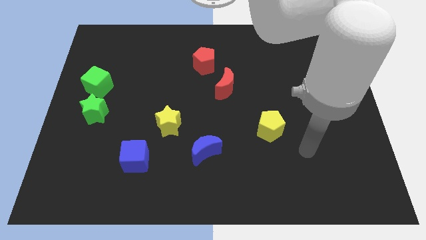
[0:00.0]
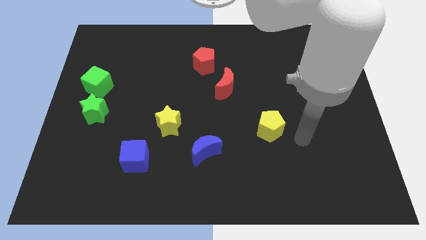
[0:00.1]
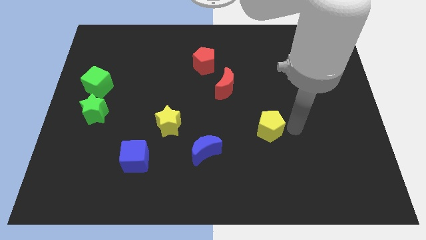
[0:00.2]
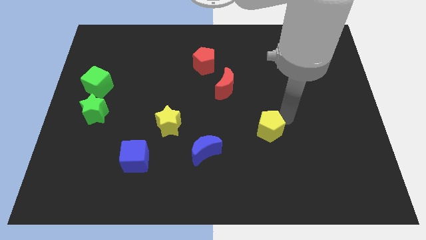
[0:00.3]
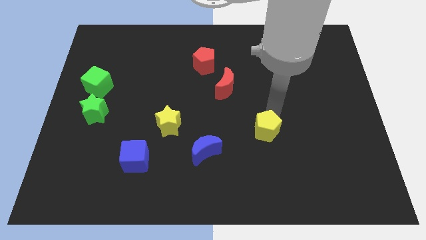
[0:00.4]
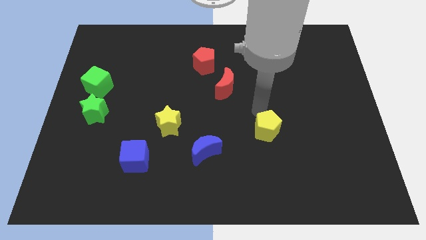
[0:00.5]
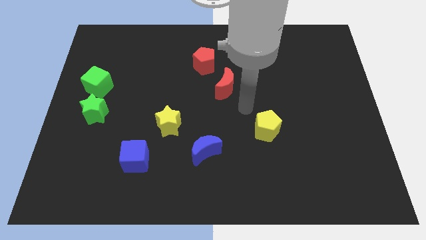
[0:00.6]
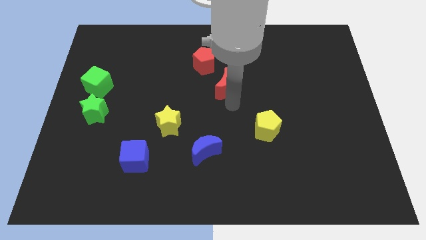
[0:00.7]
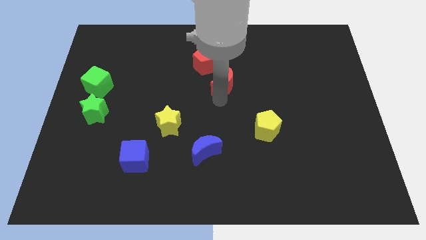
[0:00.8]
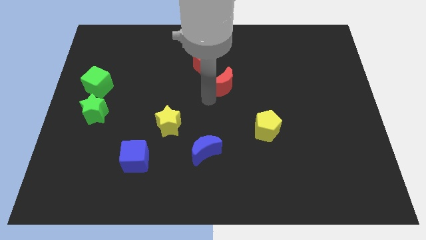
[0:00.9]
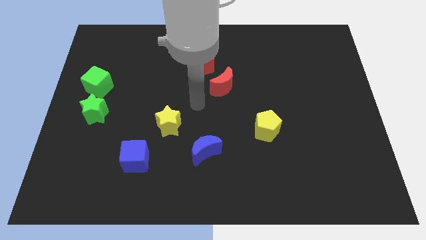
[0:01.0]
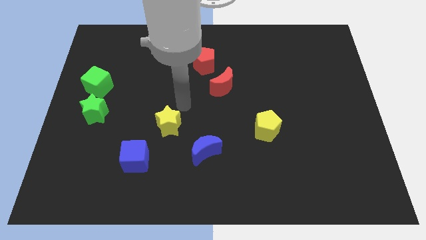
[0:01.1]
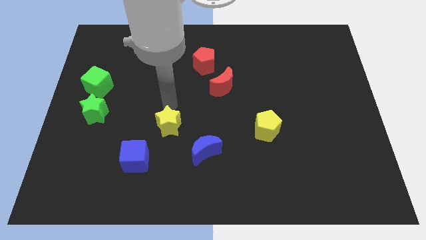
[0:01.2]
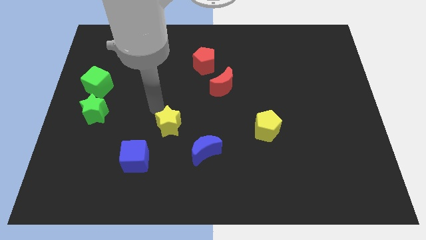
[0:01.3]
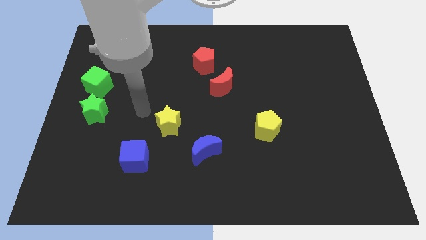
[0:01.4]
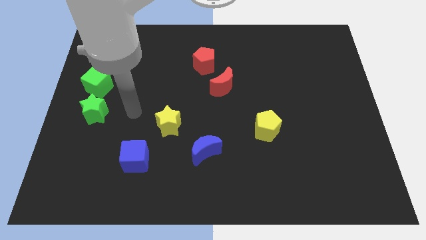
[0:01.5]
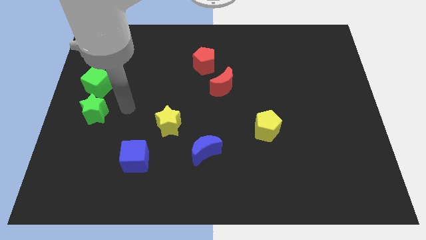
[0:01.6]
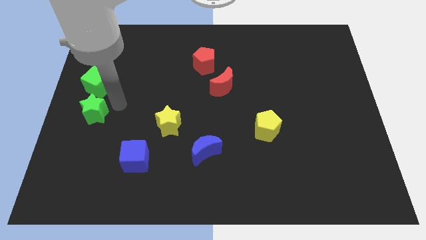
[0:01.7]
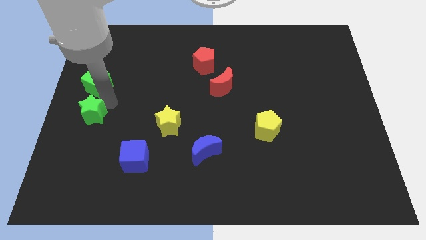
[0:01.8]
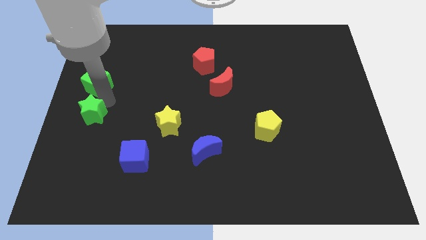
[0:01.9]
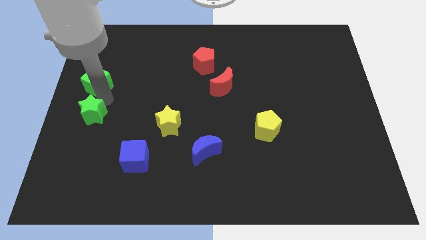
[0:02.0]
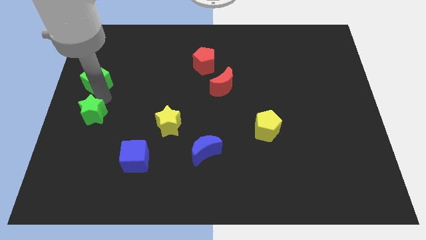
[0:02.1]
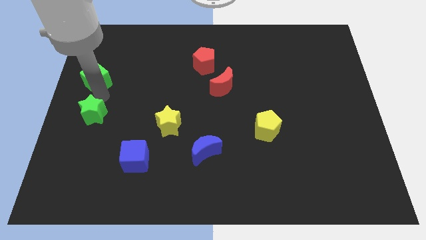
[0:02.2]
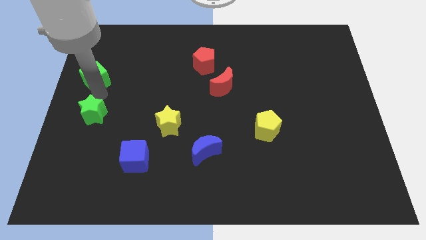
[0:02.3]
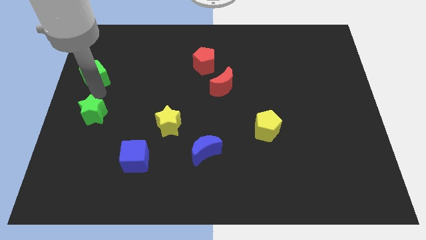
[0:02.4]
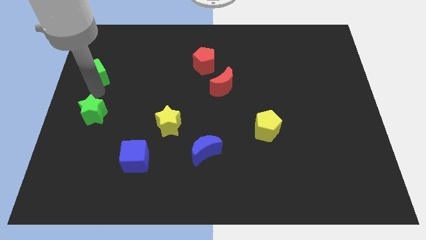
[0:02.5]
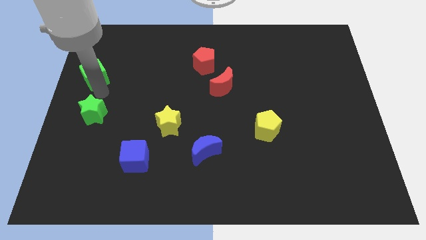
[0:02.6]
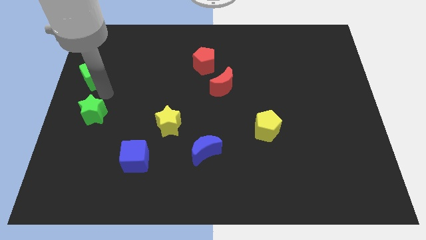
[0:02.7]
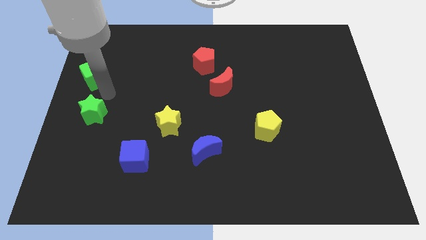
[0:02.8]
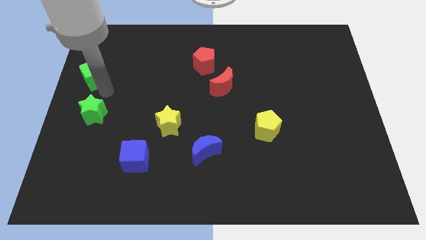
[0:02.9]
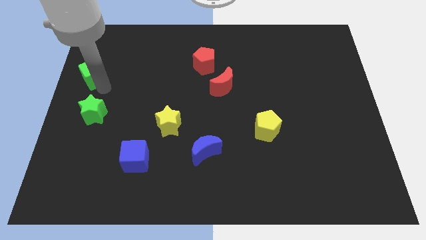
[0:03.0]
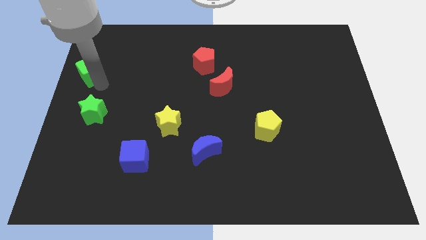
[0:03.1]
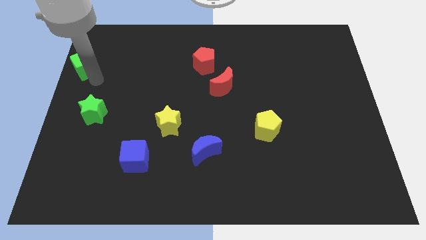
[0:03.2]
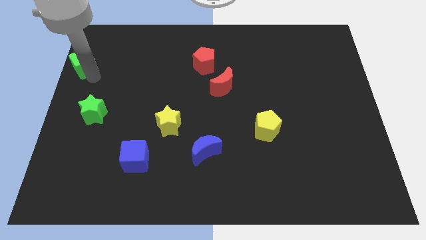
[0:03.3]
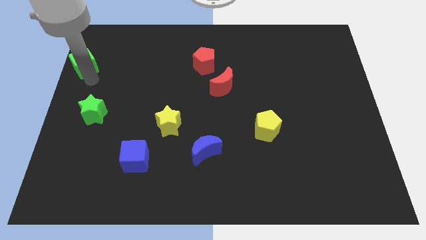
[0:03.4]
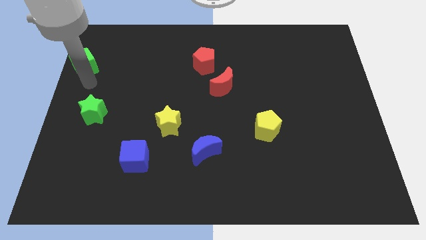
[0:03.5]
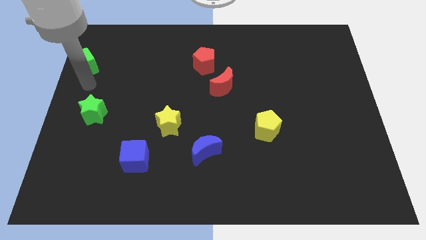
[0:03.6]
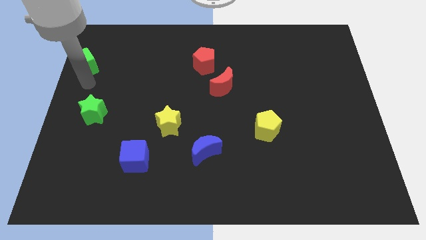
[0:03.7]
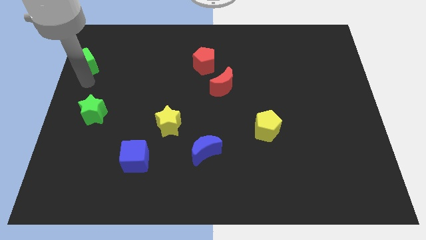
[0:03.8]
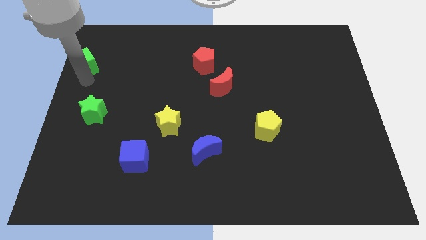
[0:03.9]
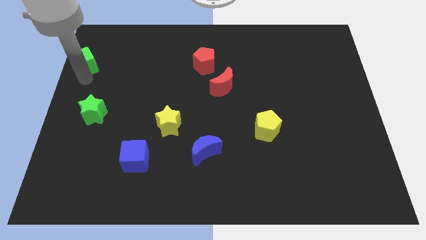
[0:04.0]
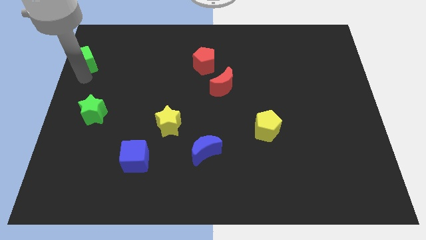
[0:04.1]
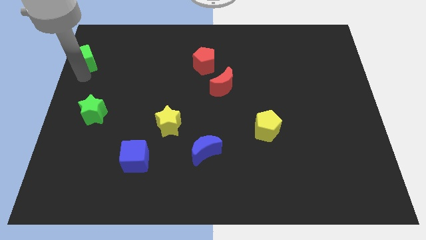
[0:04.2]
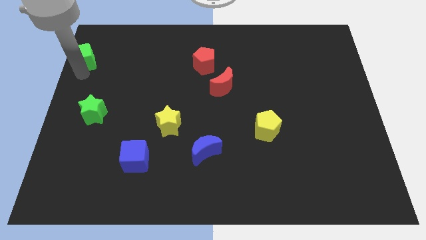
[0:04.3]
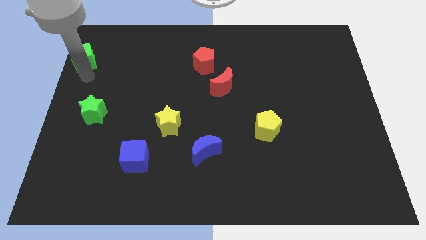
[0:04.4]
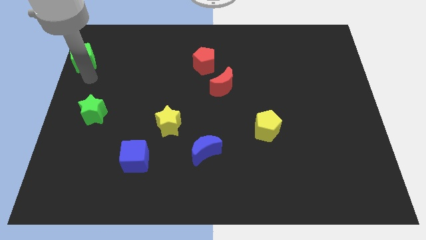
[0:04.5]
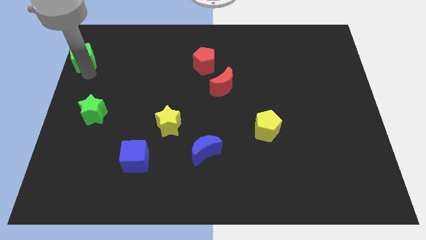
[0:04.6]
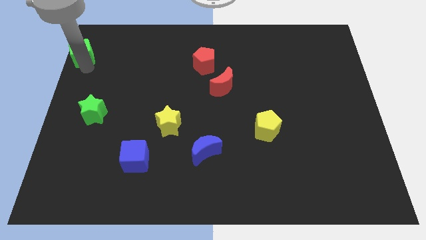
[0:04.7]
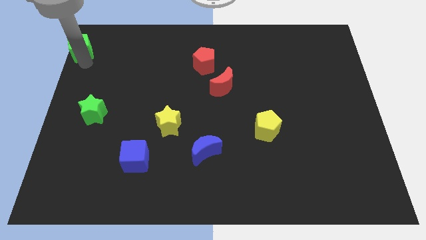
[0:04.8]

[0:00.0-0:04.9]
push the green cube to the top left of the board

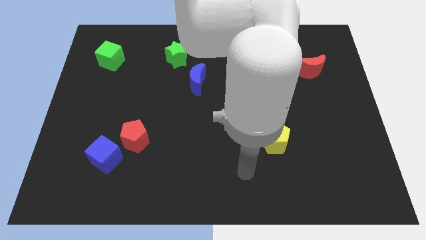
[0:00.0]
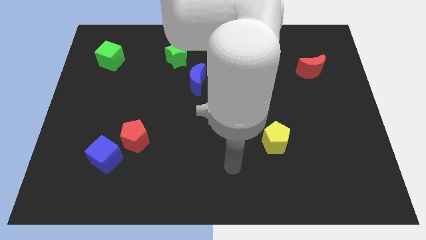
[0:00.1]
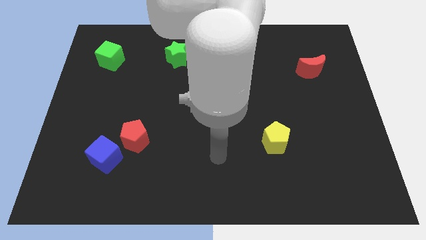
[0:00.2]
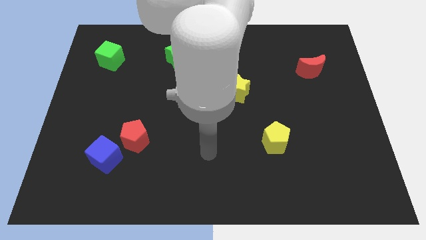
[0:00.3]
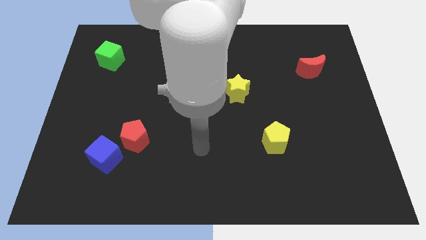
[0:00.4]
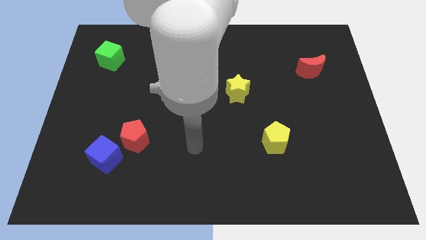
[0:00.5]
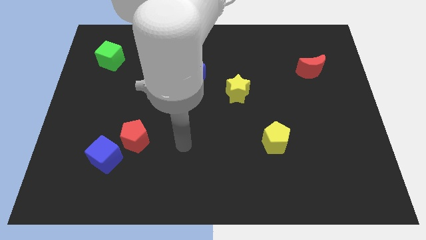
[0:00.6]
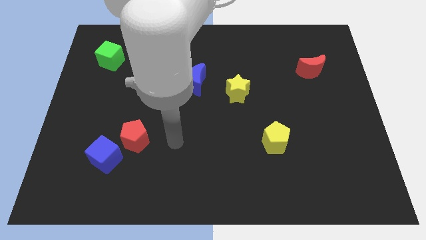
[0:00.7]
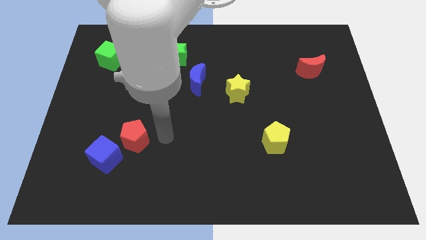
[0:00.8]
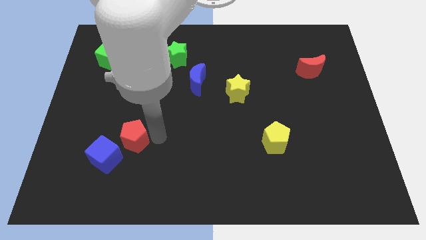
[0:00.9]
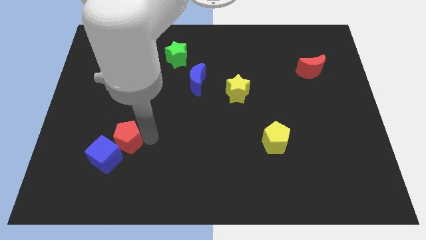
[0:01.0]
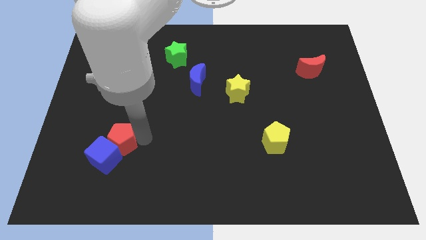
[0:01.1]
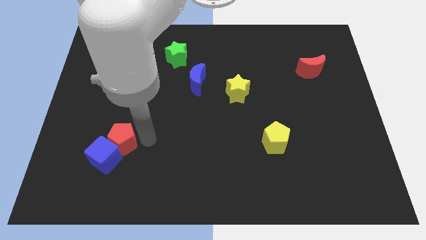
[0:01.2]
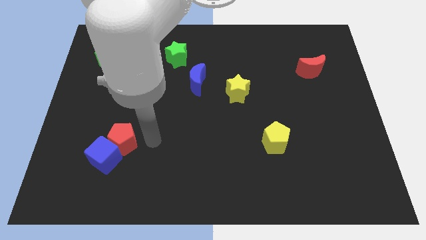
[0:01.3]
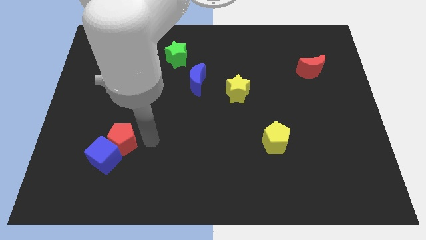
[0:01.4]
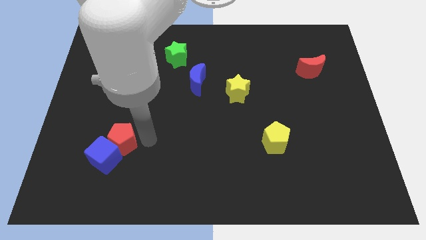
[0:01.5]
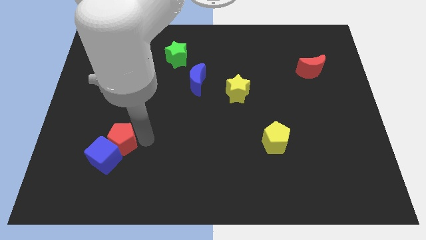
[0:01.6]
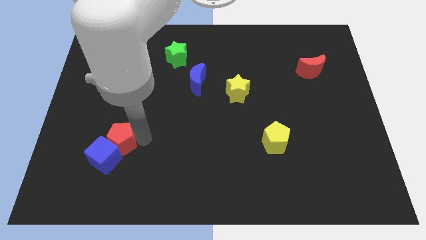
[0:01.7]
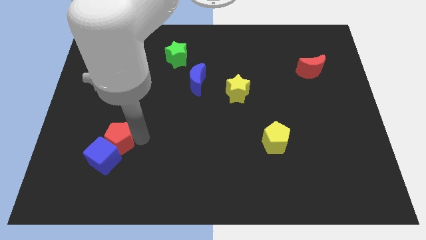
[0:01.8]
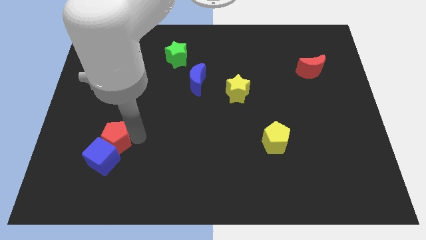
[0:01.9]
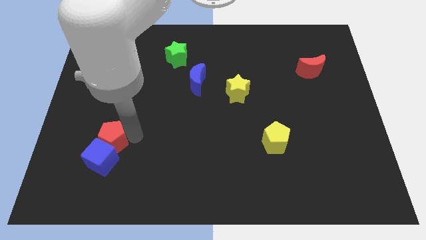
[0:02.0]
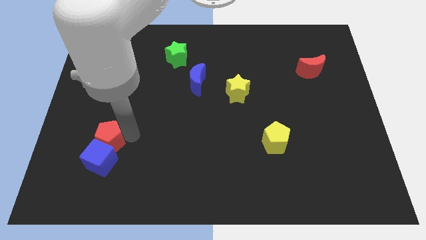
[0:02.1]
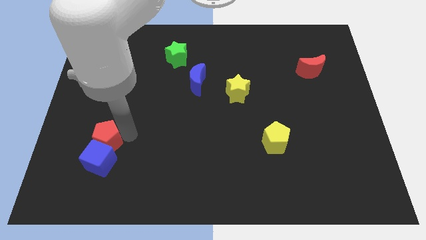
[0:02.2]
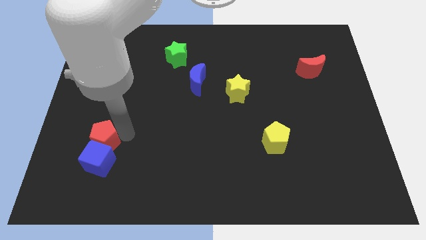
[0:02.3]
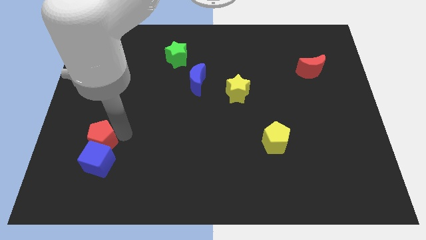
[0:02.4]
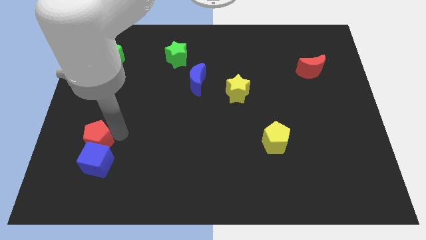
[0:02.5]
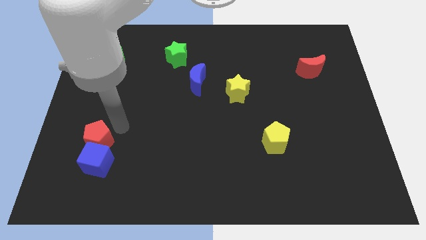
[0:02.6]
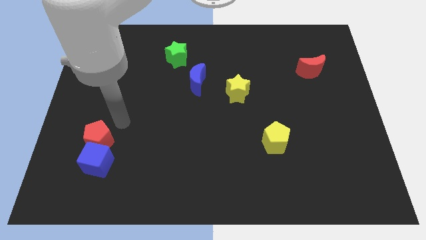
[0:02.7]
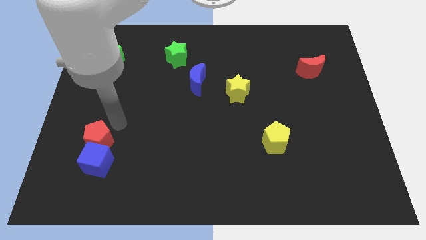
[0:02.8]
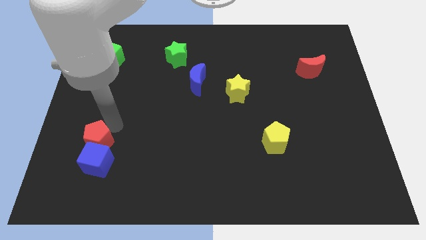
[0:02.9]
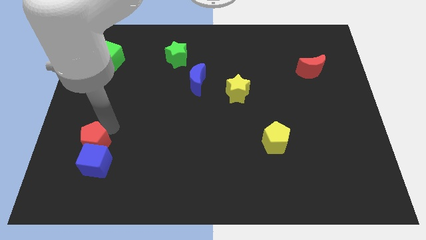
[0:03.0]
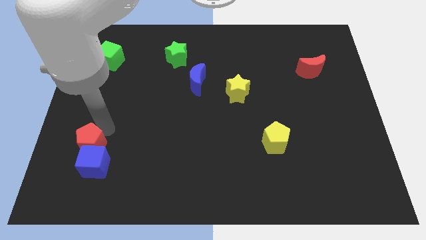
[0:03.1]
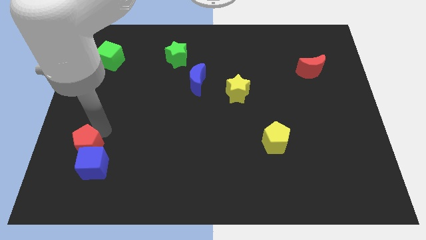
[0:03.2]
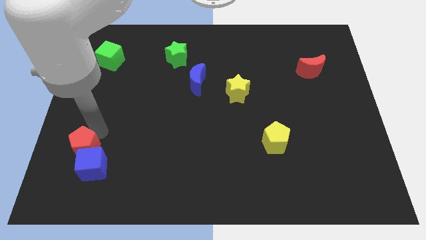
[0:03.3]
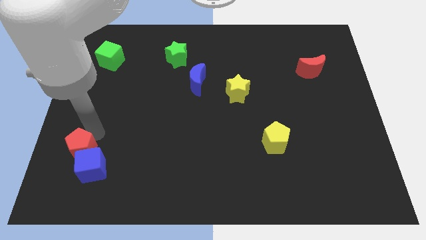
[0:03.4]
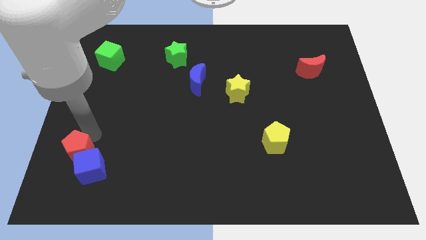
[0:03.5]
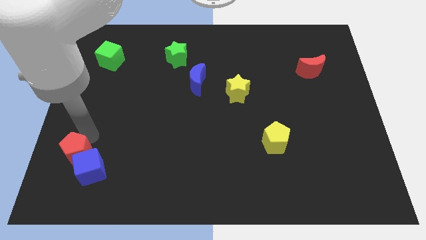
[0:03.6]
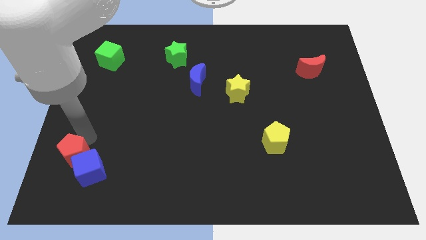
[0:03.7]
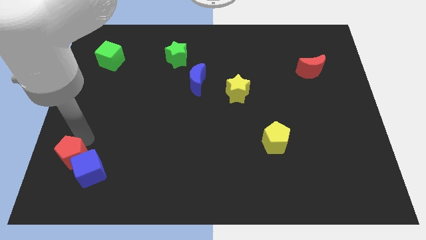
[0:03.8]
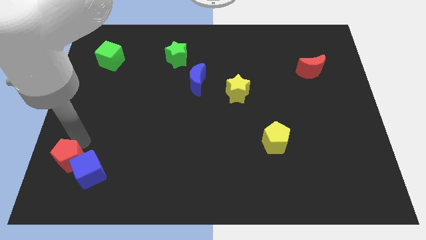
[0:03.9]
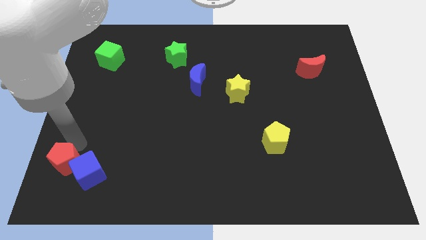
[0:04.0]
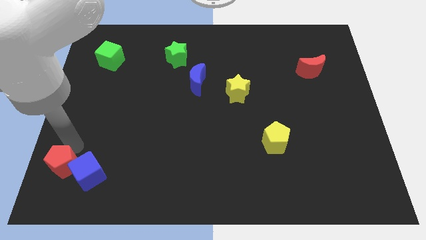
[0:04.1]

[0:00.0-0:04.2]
push the red pentagon to the bottom left of the board
